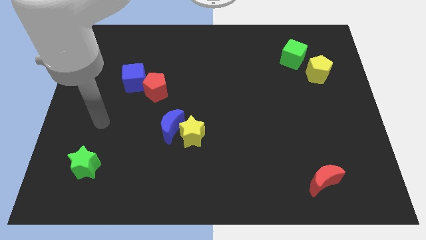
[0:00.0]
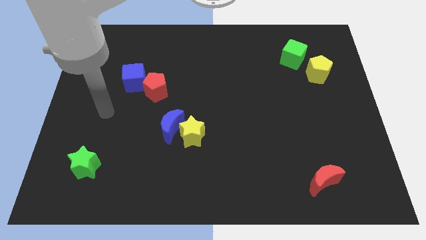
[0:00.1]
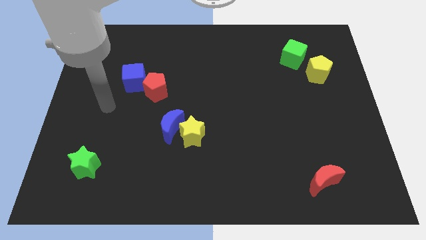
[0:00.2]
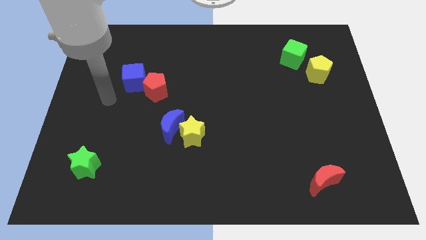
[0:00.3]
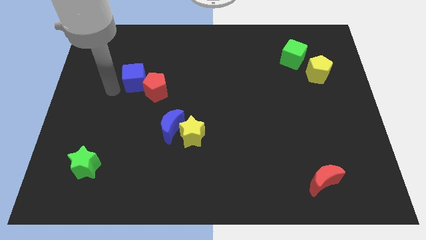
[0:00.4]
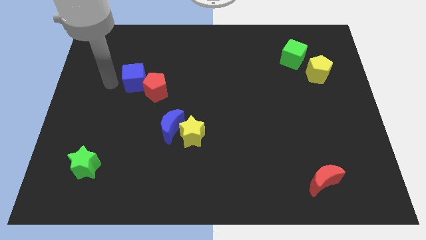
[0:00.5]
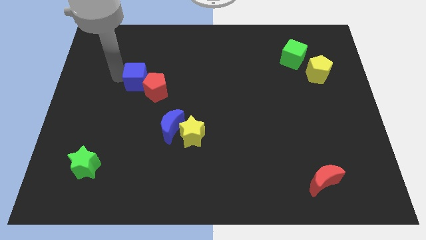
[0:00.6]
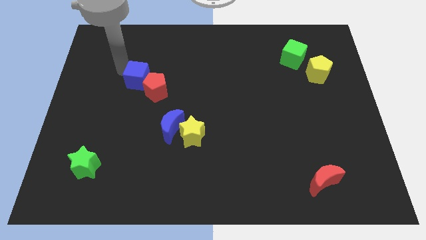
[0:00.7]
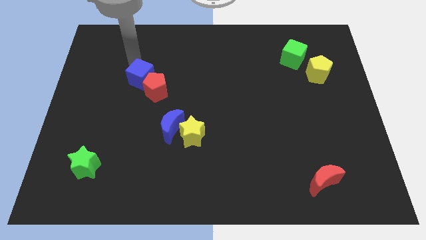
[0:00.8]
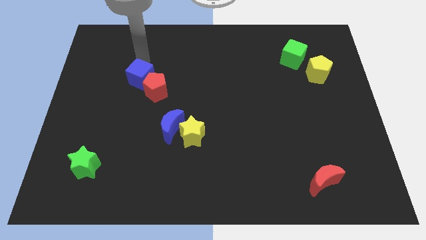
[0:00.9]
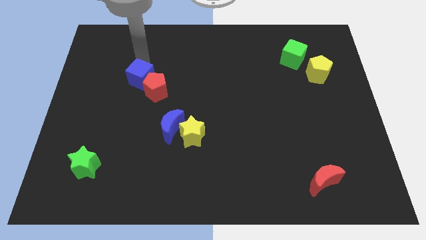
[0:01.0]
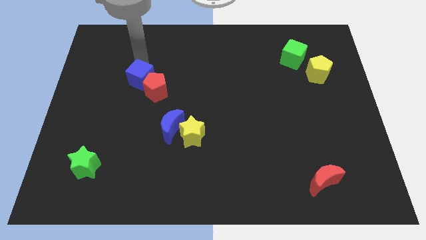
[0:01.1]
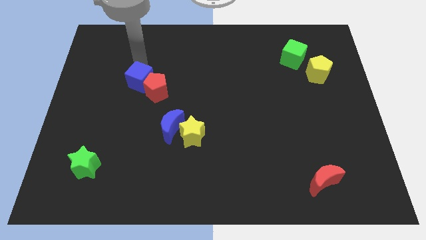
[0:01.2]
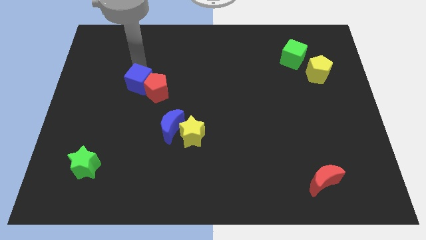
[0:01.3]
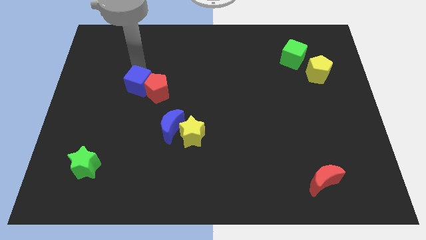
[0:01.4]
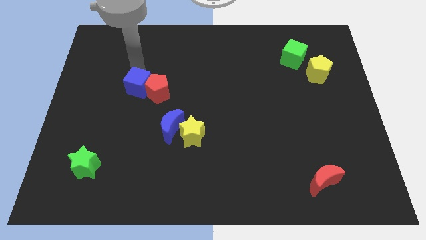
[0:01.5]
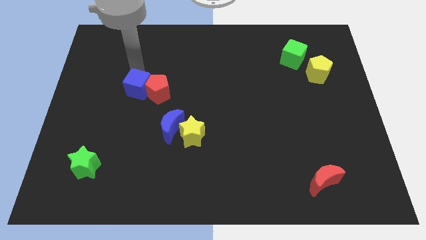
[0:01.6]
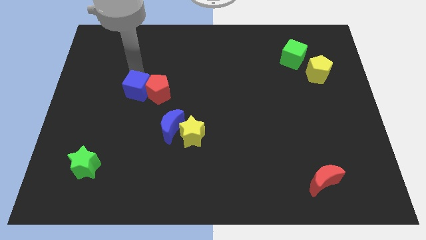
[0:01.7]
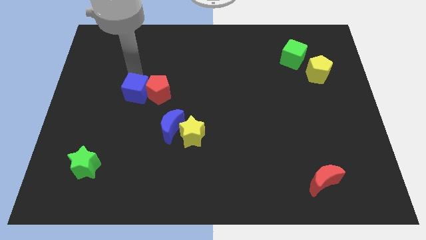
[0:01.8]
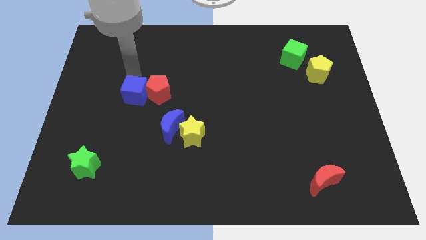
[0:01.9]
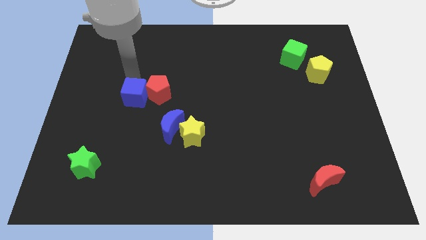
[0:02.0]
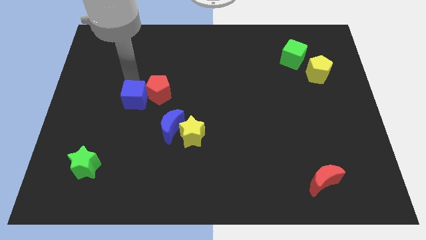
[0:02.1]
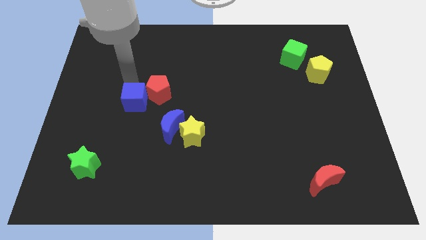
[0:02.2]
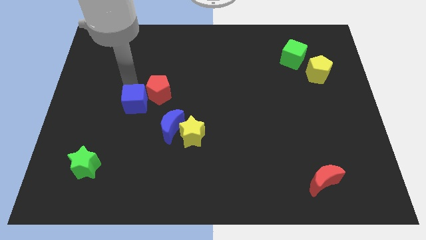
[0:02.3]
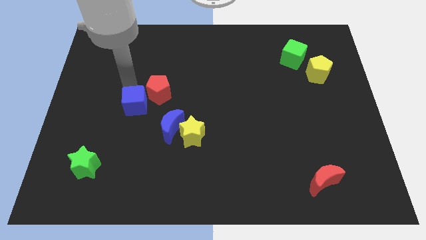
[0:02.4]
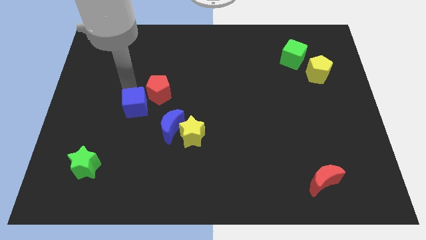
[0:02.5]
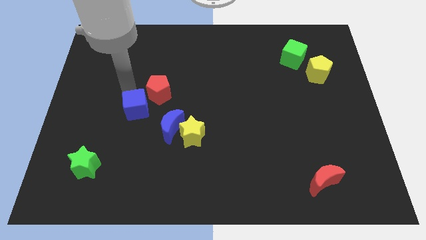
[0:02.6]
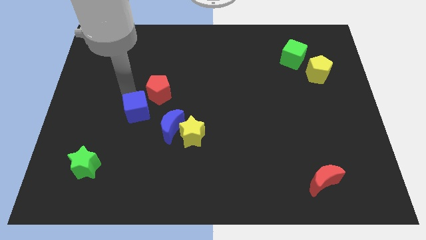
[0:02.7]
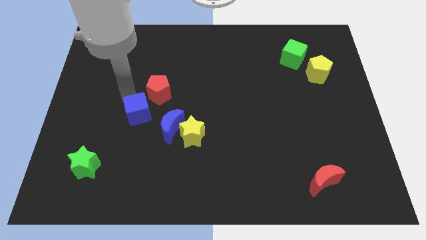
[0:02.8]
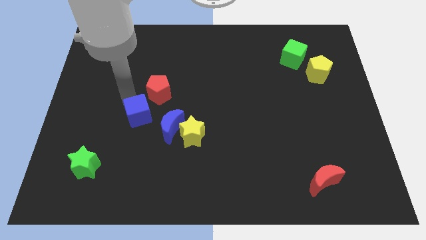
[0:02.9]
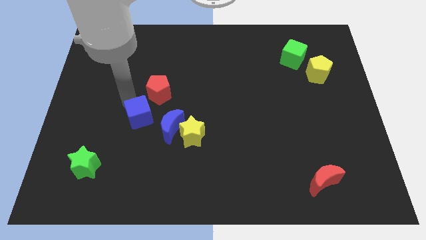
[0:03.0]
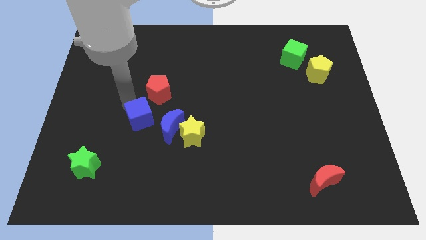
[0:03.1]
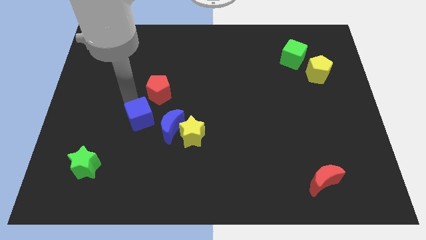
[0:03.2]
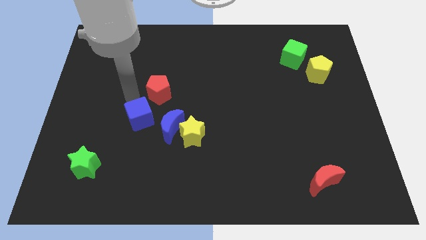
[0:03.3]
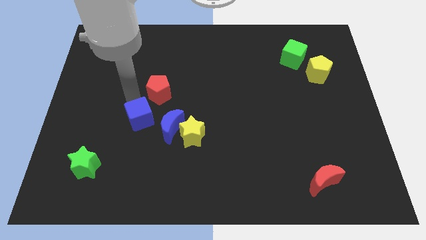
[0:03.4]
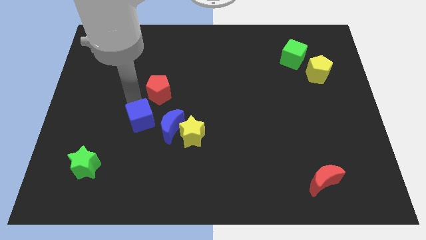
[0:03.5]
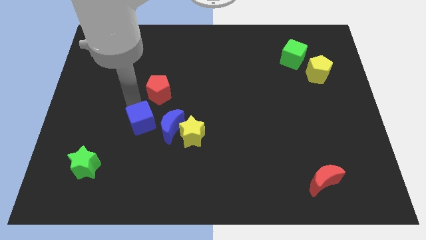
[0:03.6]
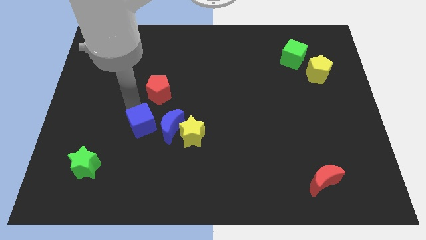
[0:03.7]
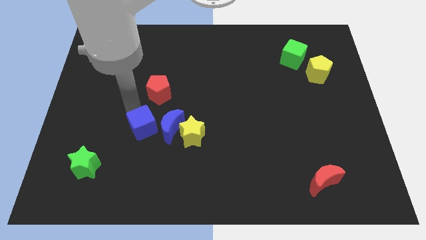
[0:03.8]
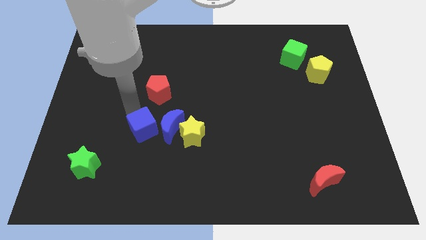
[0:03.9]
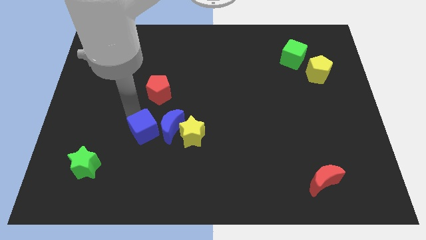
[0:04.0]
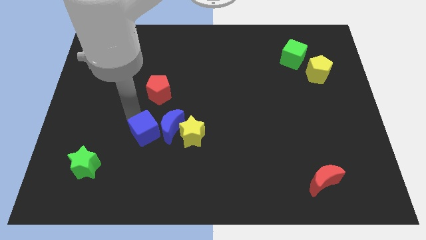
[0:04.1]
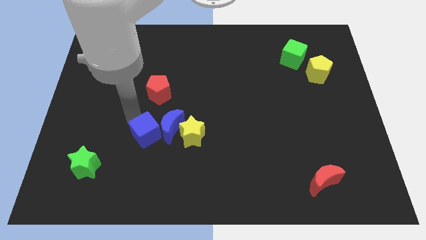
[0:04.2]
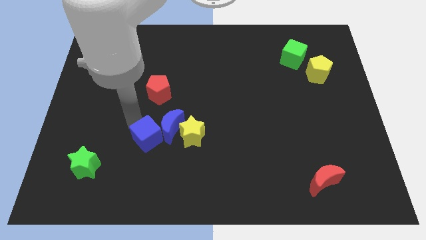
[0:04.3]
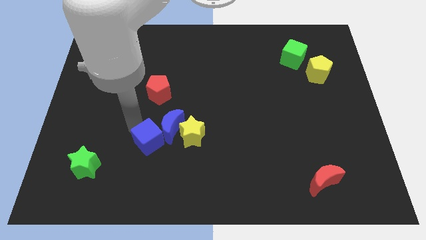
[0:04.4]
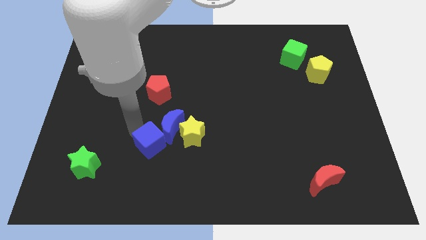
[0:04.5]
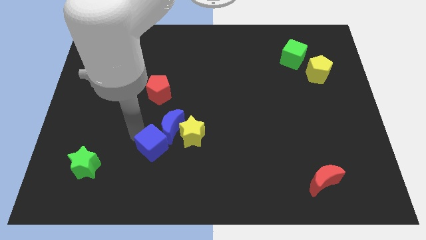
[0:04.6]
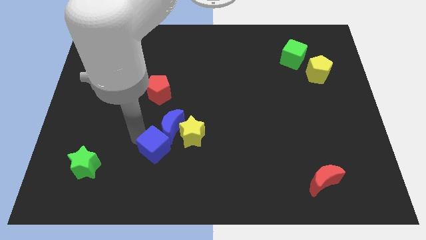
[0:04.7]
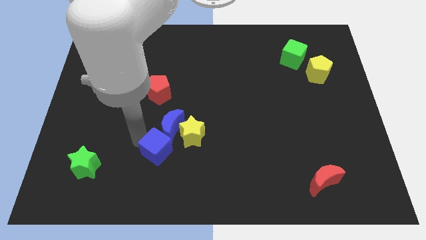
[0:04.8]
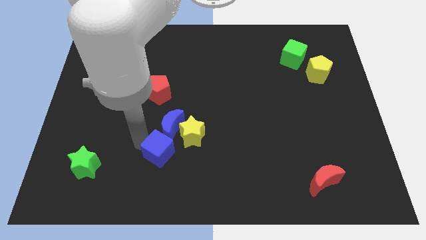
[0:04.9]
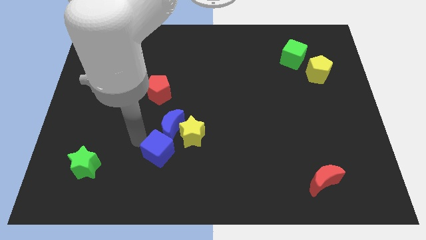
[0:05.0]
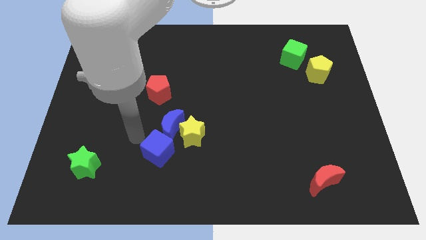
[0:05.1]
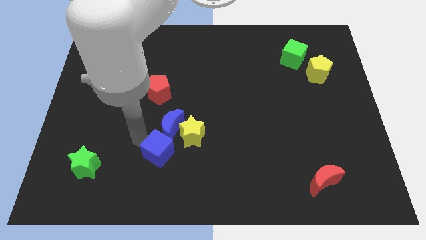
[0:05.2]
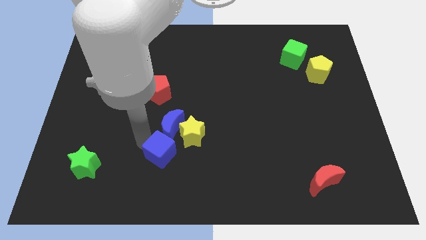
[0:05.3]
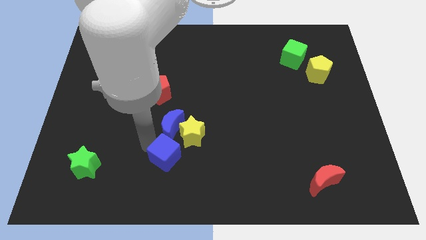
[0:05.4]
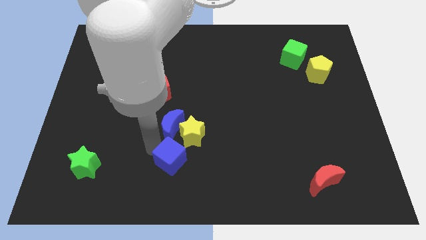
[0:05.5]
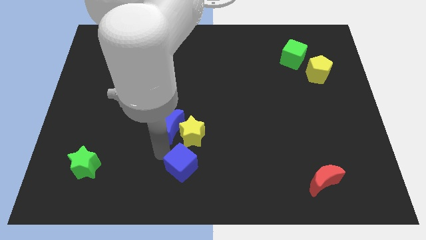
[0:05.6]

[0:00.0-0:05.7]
push the blue cube to the bottom
